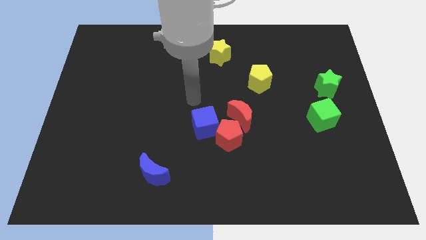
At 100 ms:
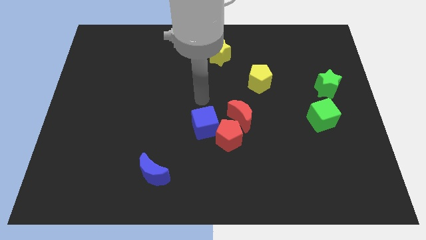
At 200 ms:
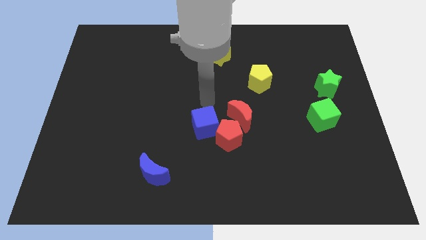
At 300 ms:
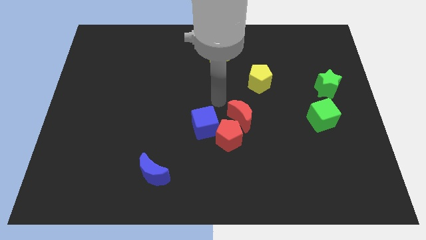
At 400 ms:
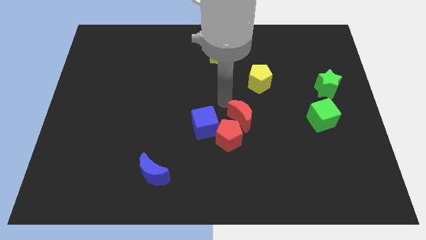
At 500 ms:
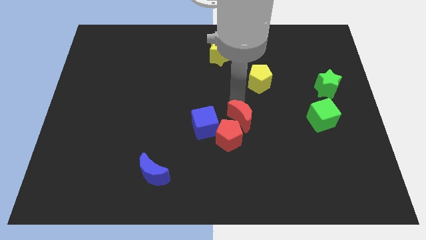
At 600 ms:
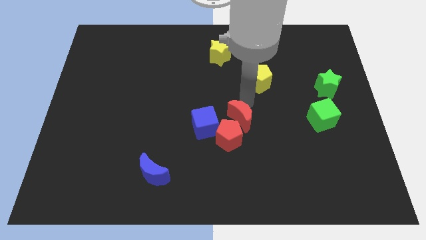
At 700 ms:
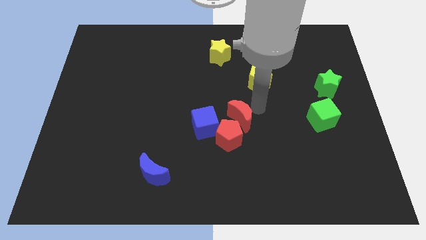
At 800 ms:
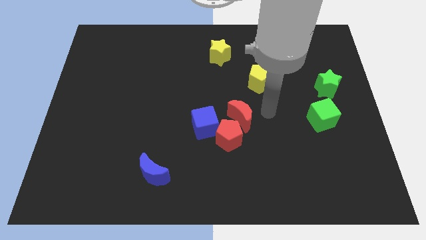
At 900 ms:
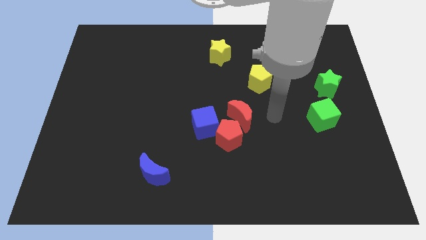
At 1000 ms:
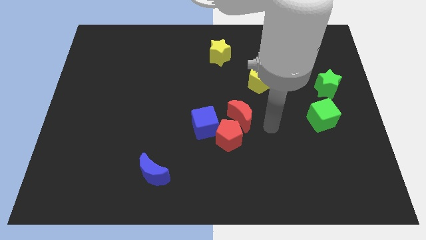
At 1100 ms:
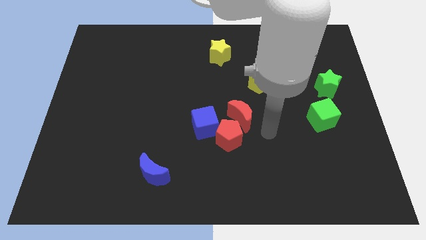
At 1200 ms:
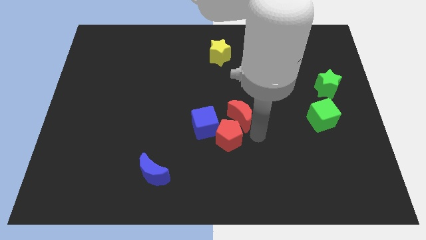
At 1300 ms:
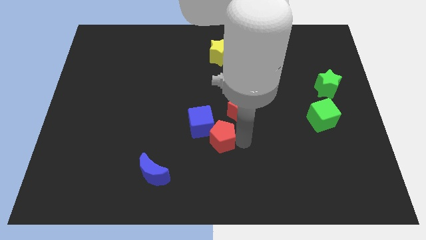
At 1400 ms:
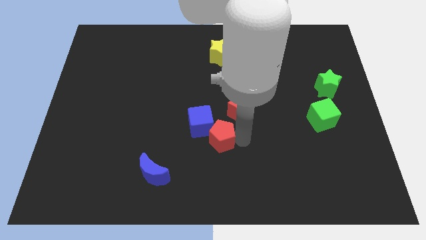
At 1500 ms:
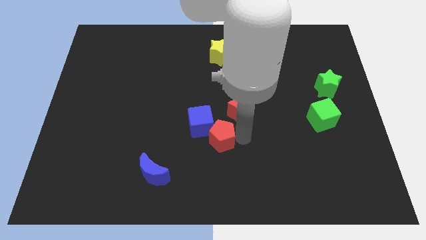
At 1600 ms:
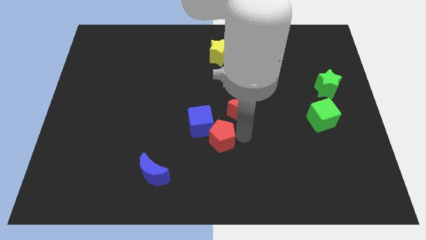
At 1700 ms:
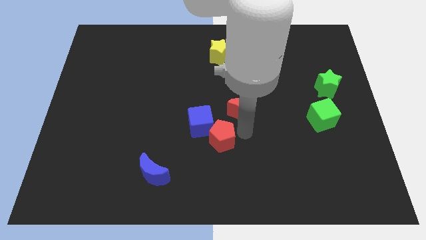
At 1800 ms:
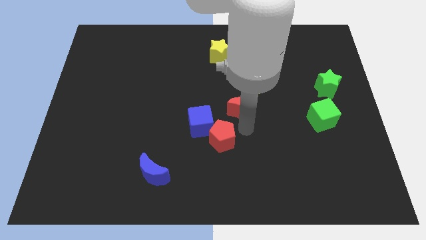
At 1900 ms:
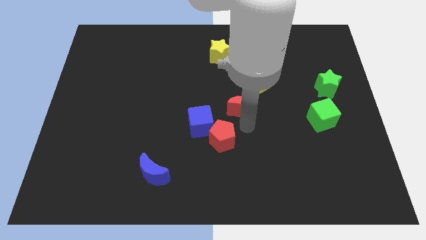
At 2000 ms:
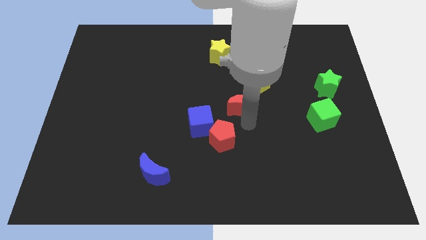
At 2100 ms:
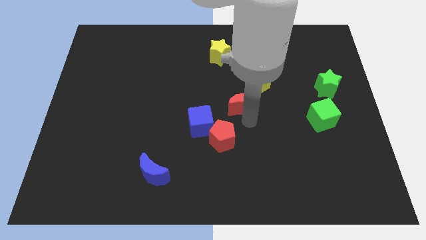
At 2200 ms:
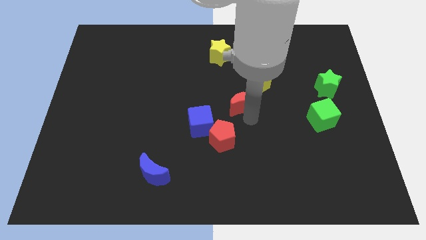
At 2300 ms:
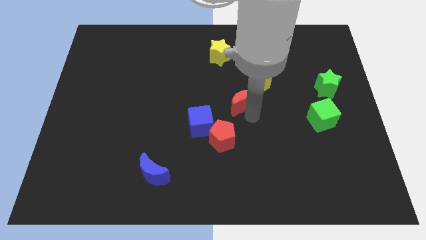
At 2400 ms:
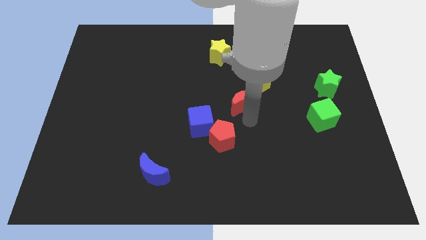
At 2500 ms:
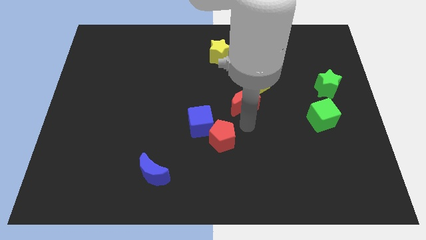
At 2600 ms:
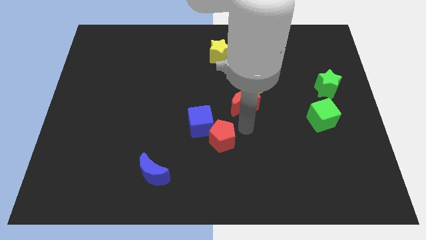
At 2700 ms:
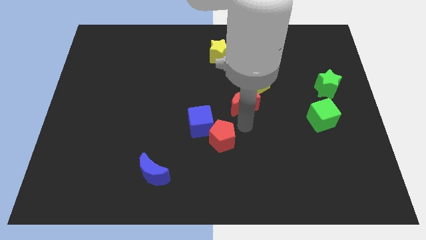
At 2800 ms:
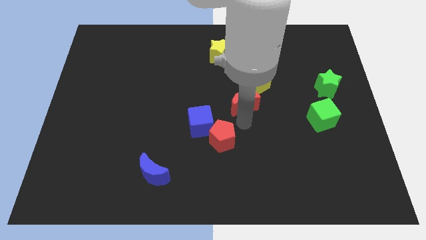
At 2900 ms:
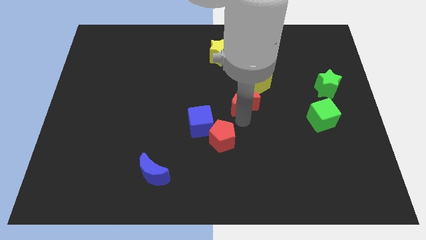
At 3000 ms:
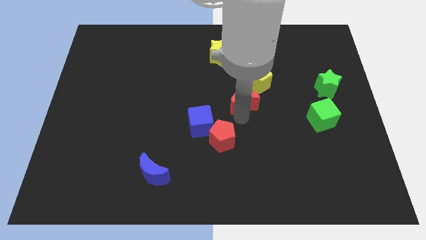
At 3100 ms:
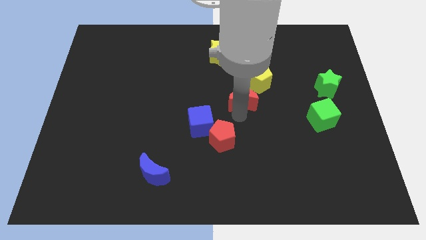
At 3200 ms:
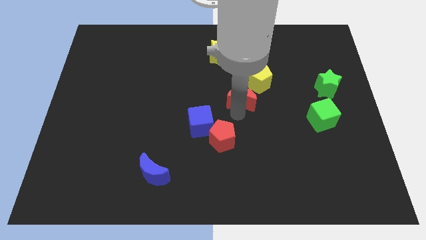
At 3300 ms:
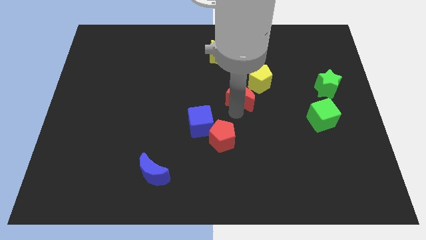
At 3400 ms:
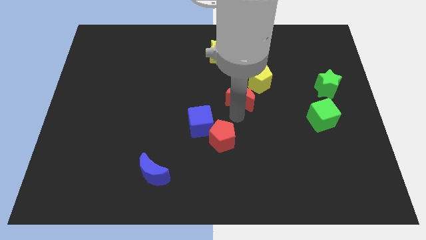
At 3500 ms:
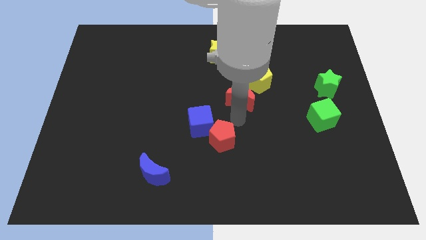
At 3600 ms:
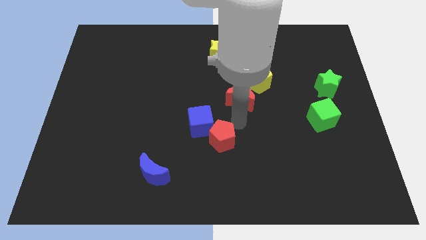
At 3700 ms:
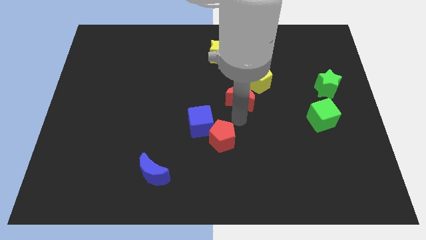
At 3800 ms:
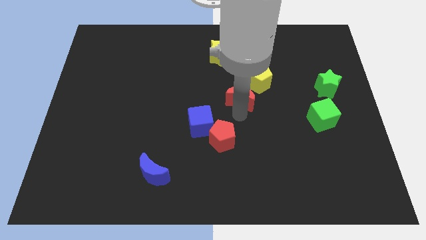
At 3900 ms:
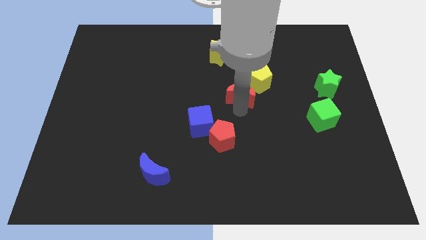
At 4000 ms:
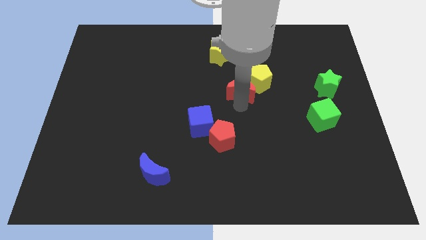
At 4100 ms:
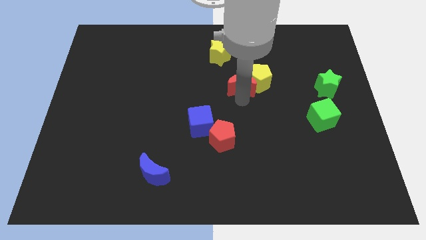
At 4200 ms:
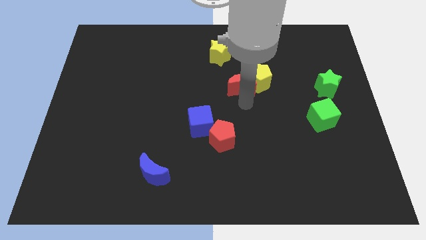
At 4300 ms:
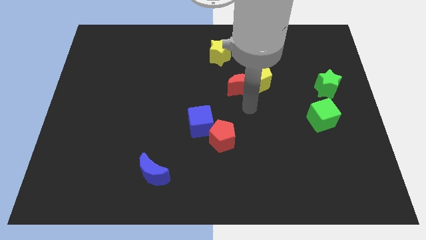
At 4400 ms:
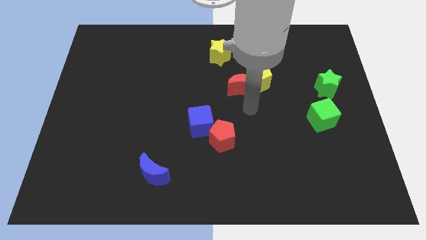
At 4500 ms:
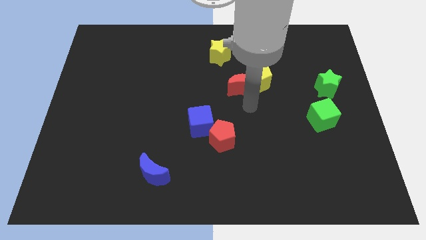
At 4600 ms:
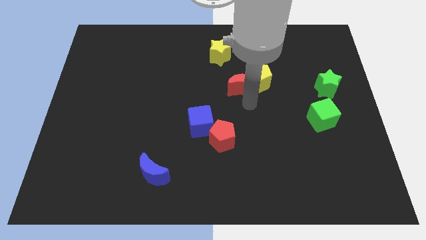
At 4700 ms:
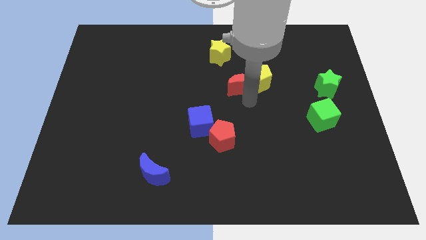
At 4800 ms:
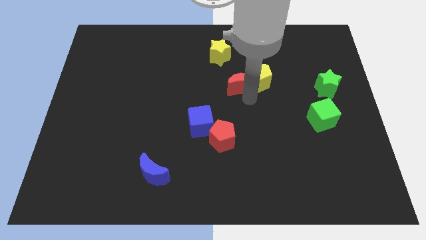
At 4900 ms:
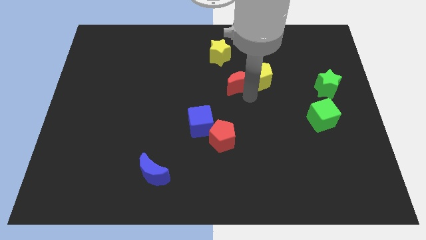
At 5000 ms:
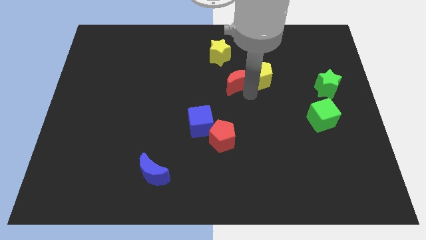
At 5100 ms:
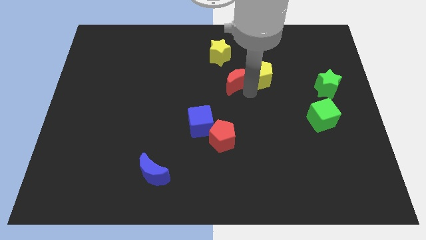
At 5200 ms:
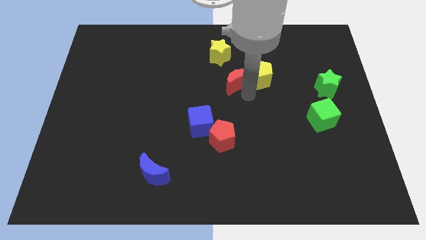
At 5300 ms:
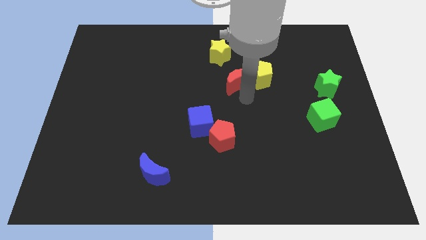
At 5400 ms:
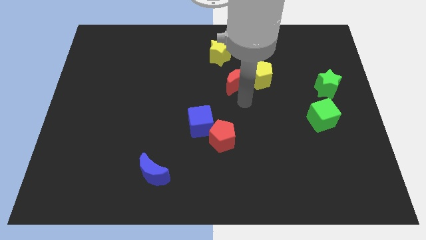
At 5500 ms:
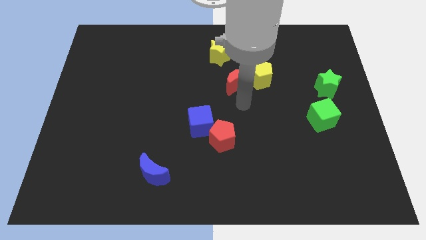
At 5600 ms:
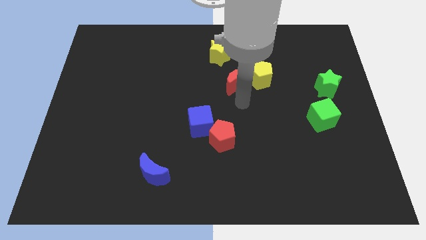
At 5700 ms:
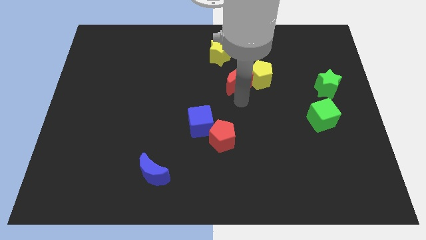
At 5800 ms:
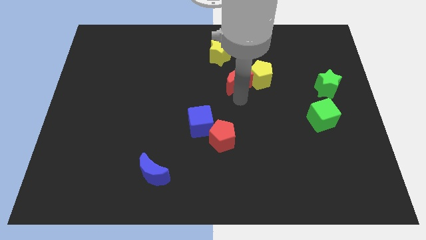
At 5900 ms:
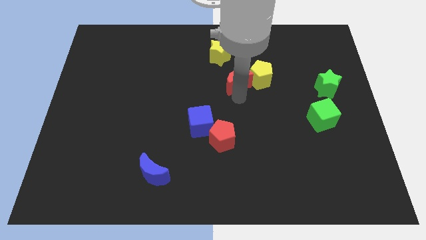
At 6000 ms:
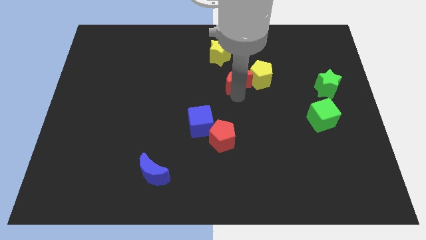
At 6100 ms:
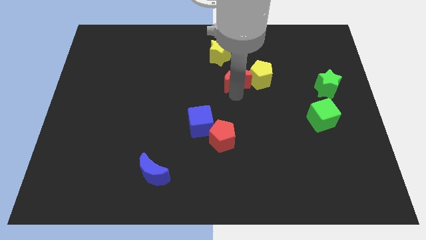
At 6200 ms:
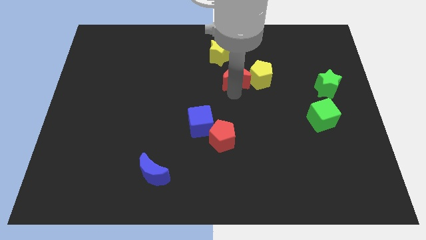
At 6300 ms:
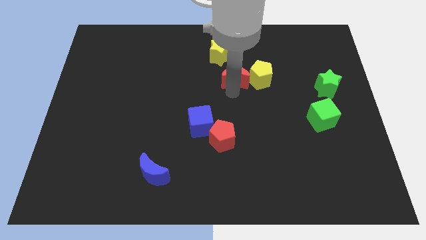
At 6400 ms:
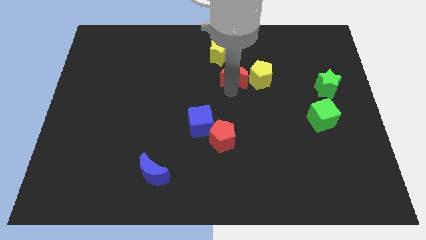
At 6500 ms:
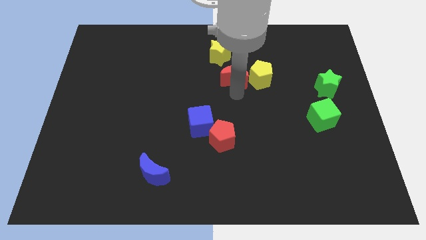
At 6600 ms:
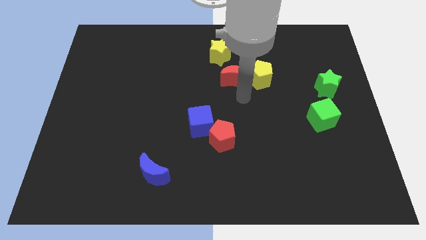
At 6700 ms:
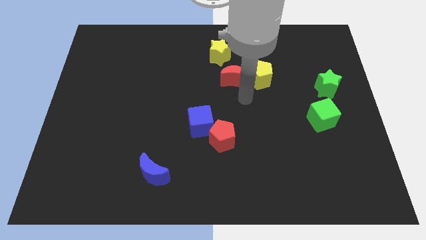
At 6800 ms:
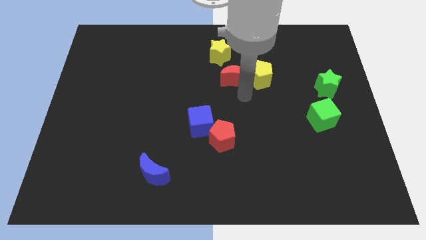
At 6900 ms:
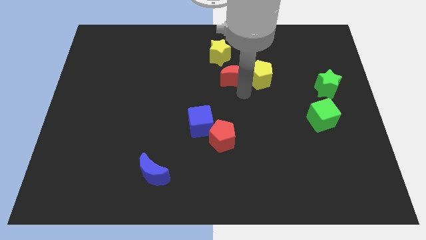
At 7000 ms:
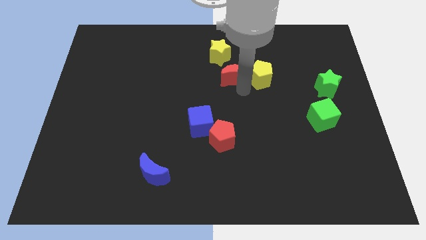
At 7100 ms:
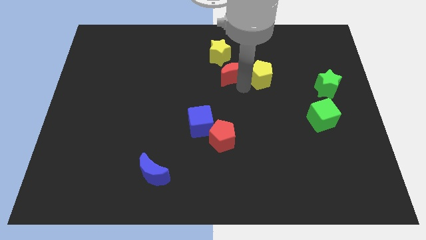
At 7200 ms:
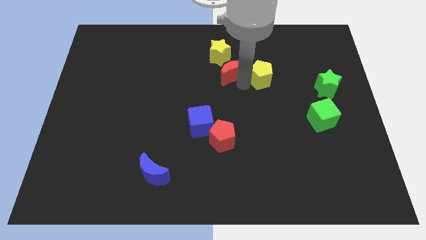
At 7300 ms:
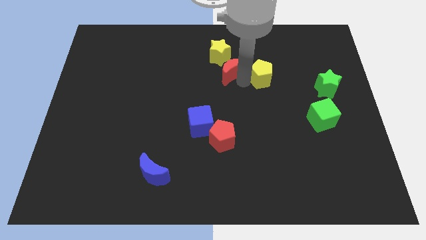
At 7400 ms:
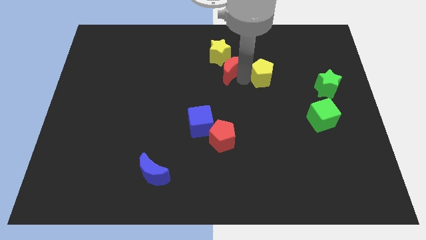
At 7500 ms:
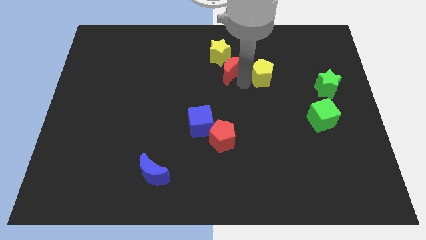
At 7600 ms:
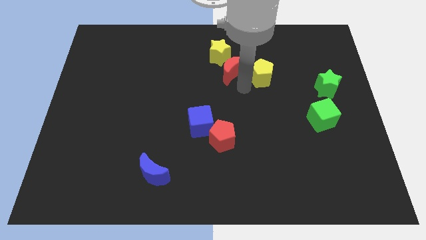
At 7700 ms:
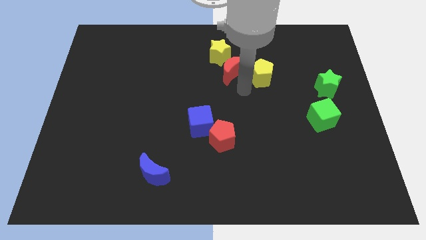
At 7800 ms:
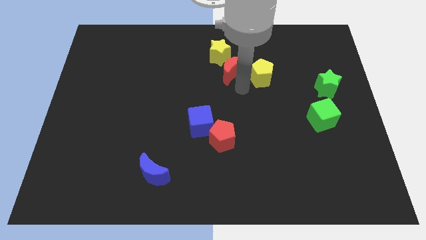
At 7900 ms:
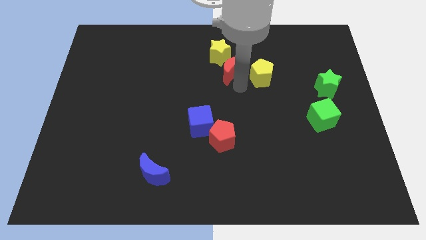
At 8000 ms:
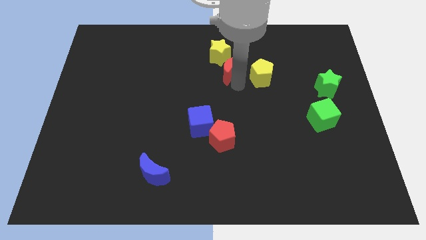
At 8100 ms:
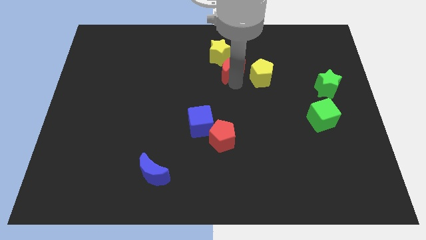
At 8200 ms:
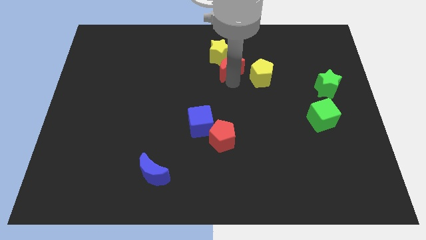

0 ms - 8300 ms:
move the red moon next to the yellow star
